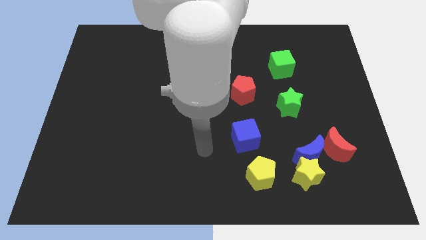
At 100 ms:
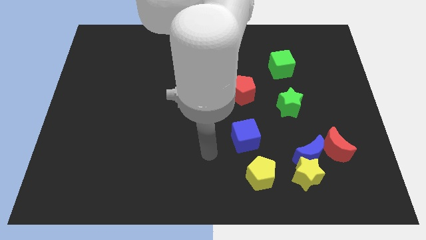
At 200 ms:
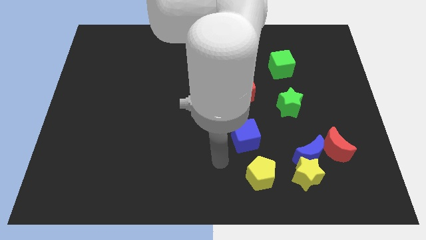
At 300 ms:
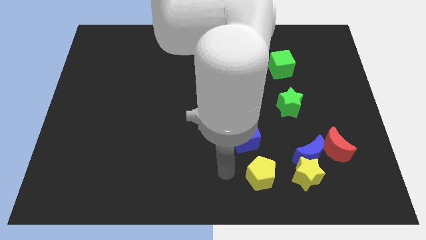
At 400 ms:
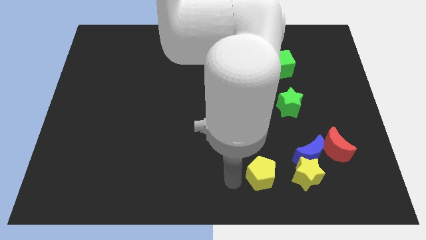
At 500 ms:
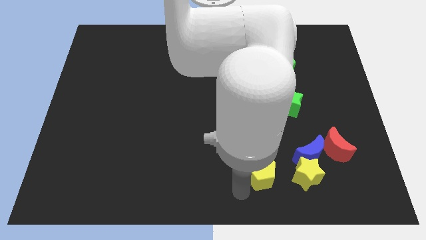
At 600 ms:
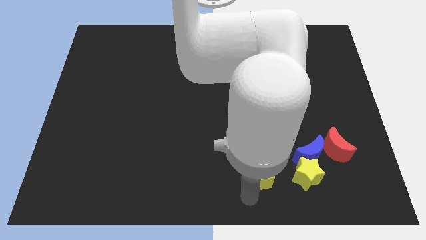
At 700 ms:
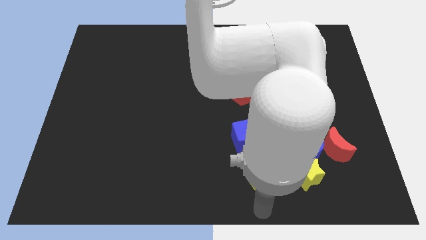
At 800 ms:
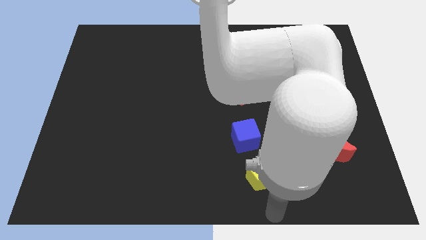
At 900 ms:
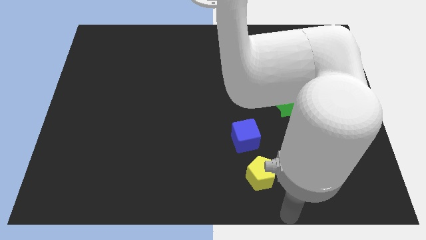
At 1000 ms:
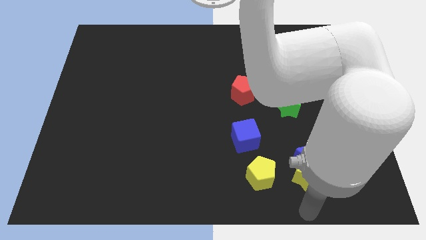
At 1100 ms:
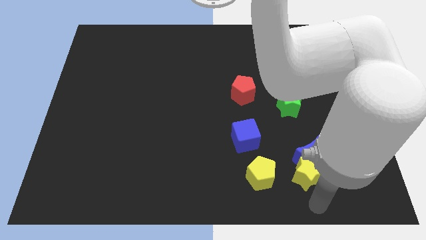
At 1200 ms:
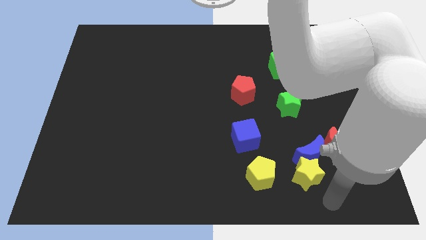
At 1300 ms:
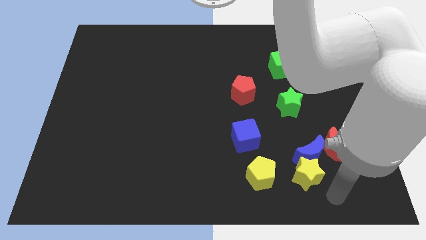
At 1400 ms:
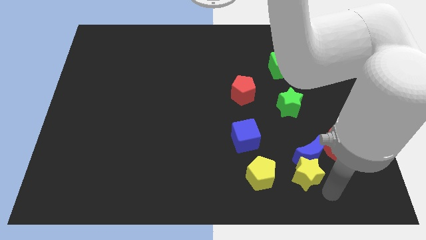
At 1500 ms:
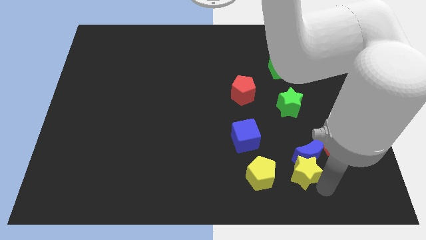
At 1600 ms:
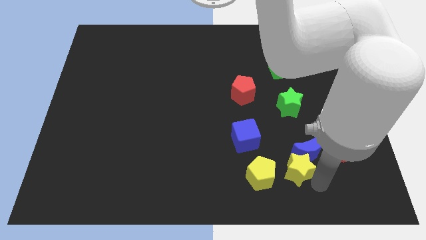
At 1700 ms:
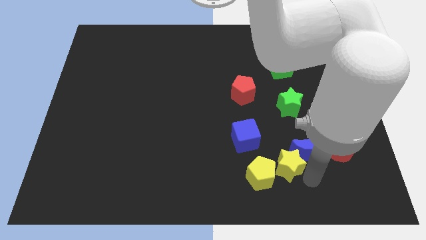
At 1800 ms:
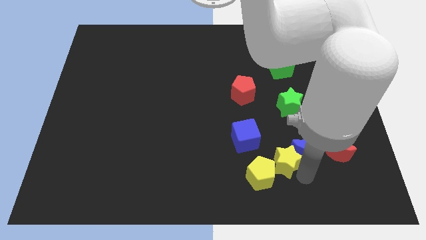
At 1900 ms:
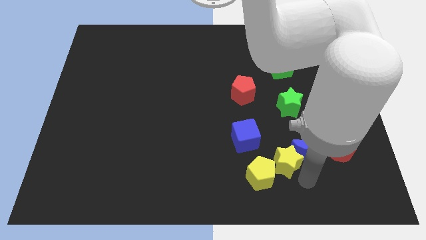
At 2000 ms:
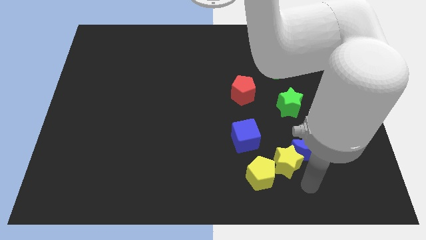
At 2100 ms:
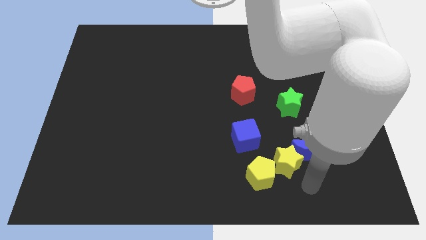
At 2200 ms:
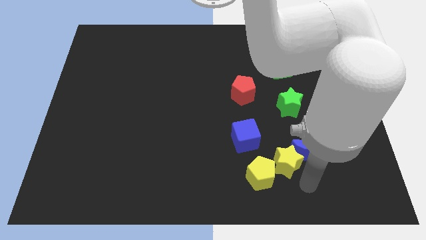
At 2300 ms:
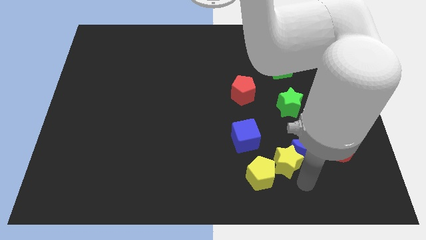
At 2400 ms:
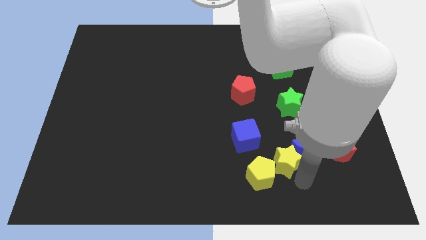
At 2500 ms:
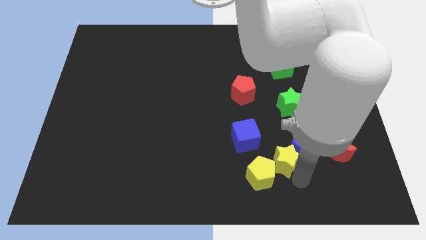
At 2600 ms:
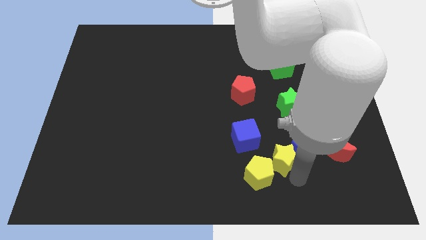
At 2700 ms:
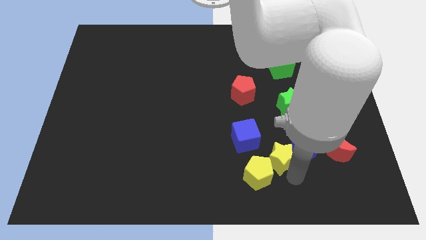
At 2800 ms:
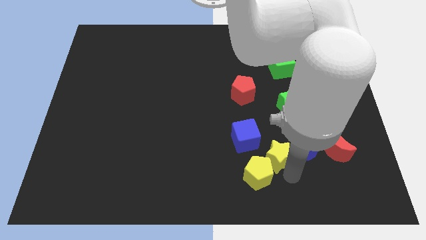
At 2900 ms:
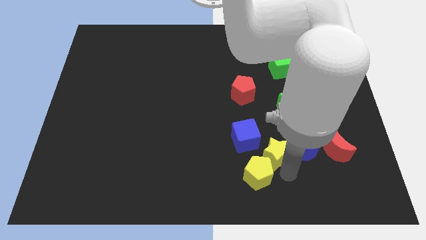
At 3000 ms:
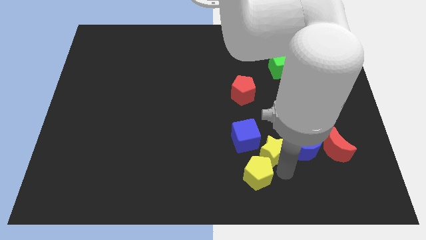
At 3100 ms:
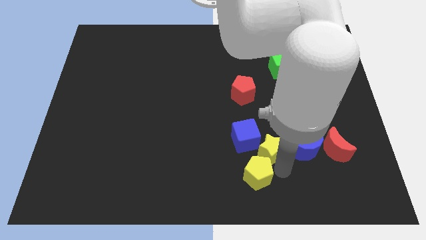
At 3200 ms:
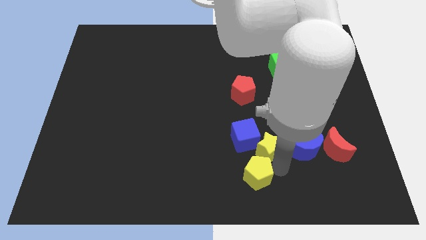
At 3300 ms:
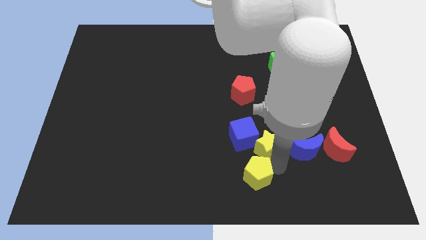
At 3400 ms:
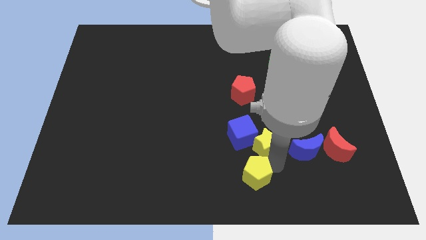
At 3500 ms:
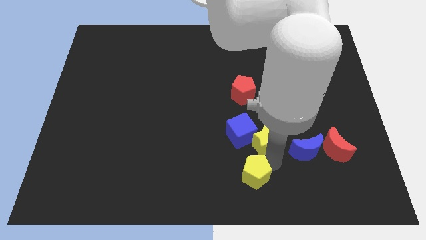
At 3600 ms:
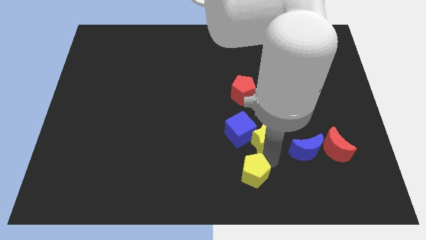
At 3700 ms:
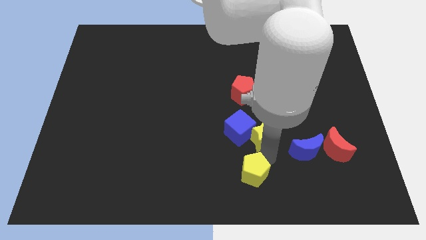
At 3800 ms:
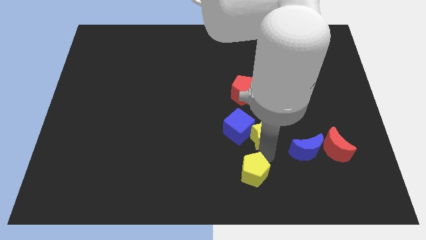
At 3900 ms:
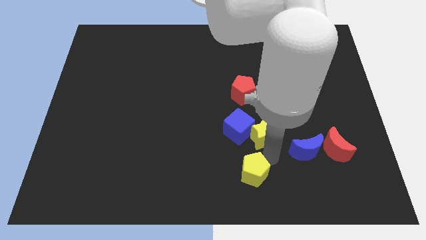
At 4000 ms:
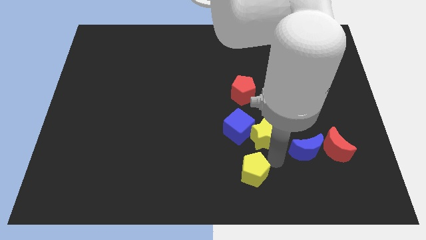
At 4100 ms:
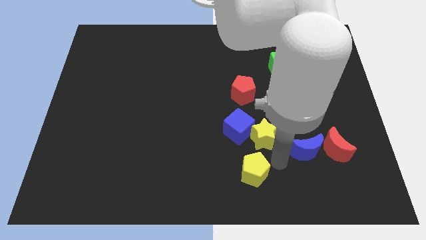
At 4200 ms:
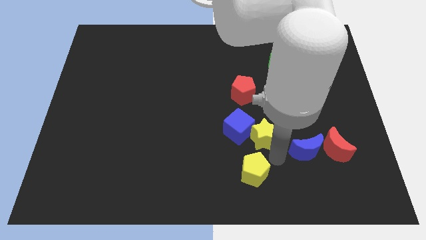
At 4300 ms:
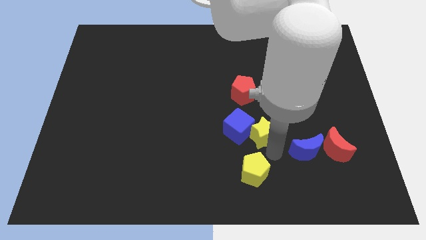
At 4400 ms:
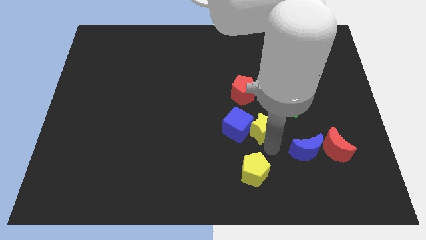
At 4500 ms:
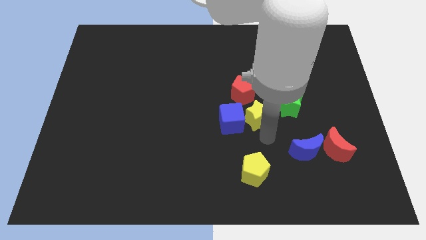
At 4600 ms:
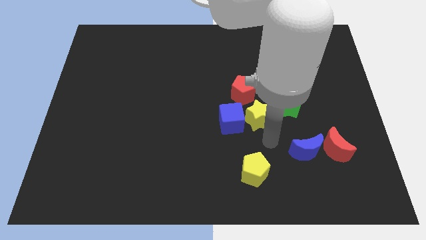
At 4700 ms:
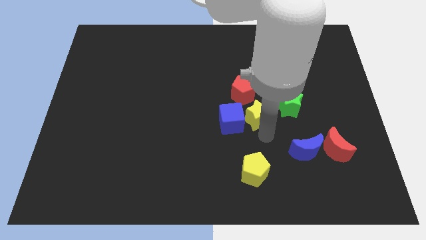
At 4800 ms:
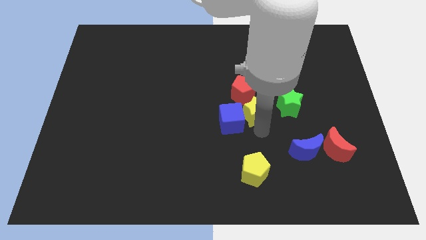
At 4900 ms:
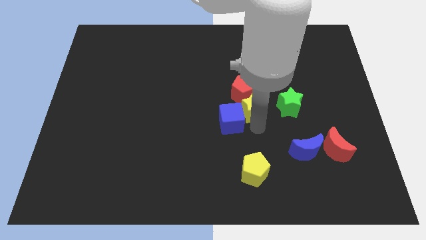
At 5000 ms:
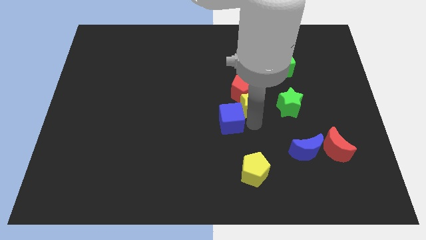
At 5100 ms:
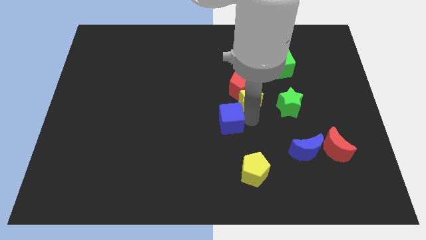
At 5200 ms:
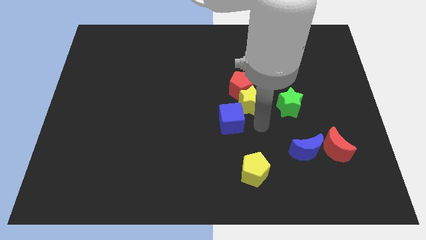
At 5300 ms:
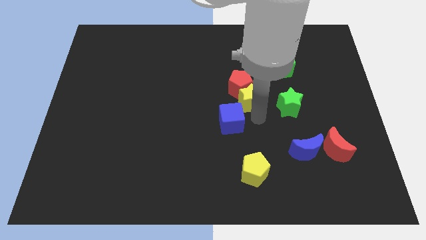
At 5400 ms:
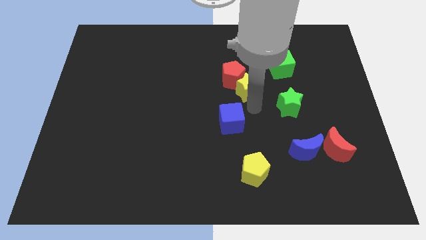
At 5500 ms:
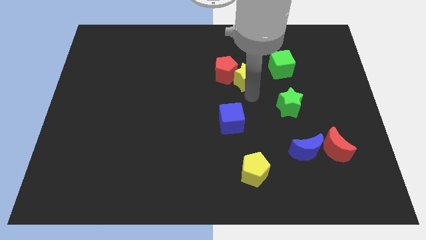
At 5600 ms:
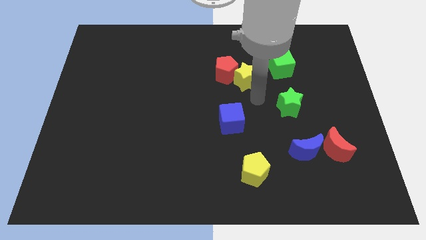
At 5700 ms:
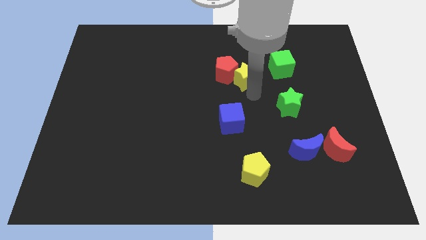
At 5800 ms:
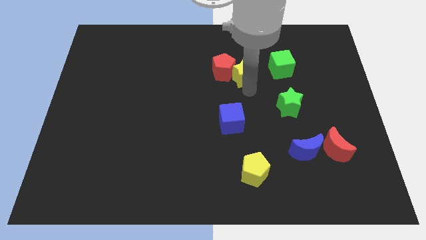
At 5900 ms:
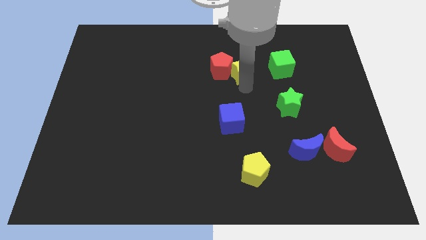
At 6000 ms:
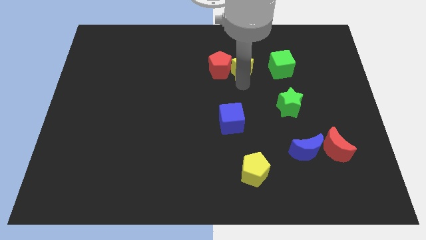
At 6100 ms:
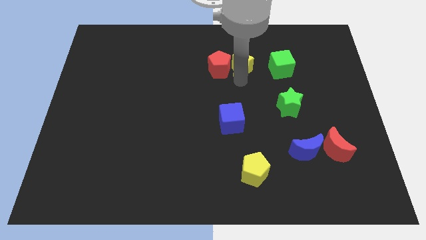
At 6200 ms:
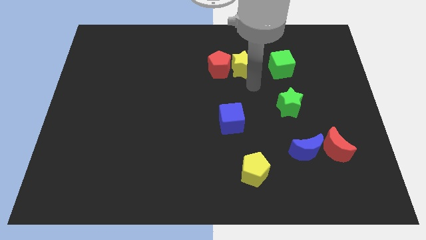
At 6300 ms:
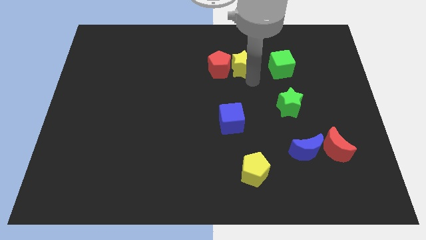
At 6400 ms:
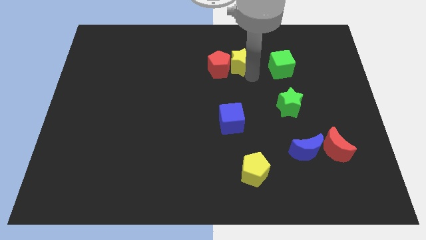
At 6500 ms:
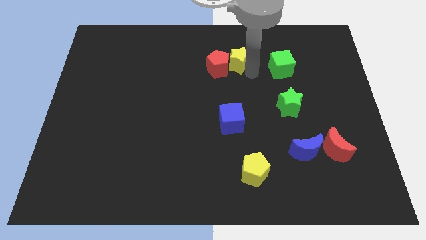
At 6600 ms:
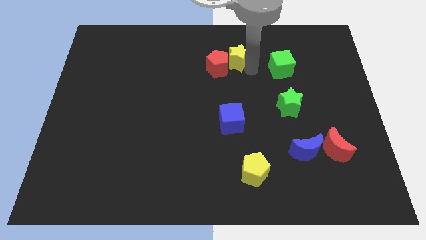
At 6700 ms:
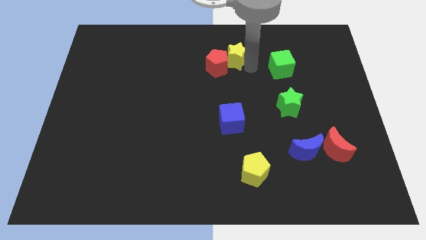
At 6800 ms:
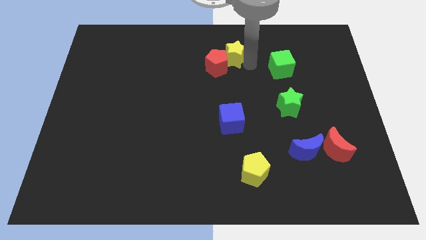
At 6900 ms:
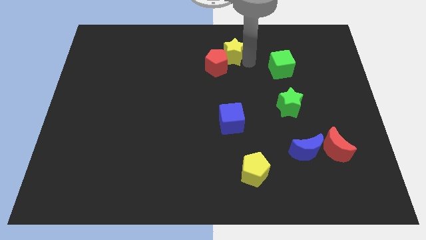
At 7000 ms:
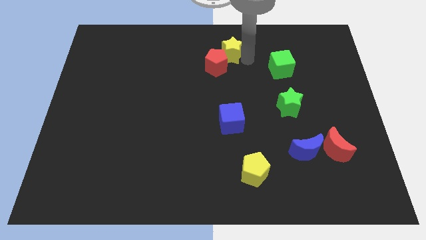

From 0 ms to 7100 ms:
move the yellow star to the towards your base
